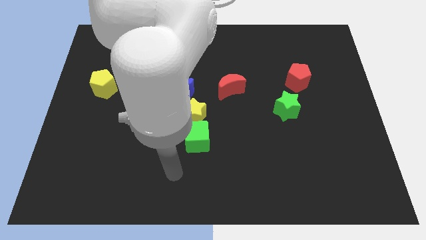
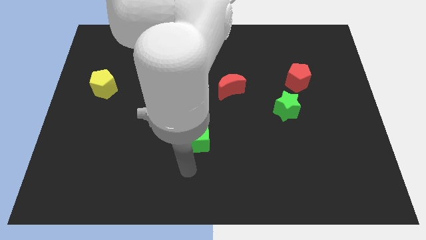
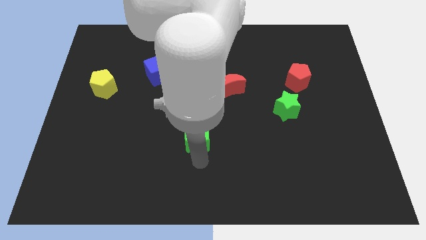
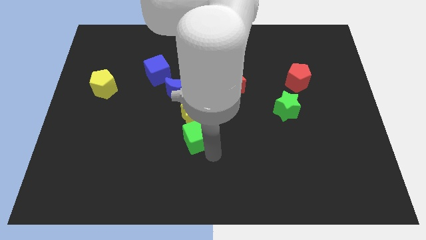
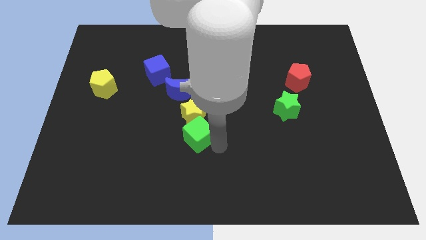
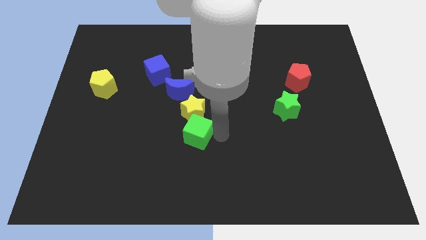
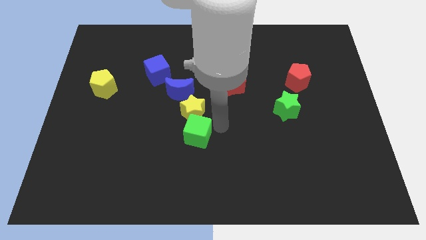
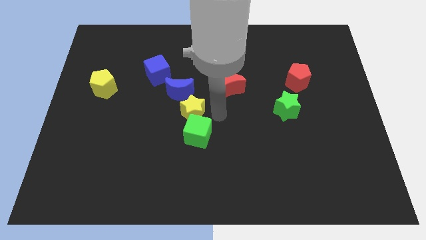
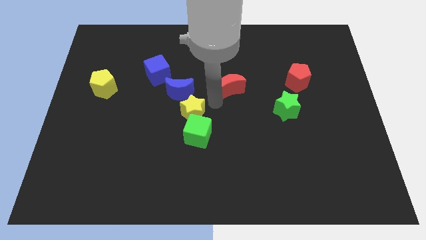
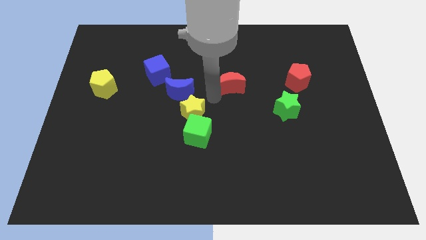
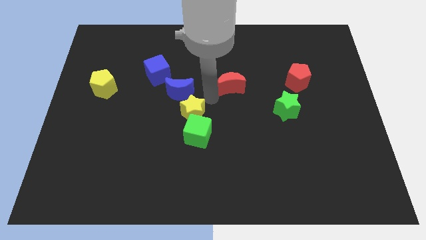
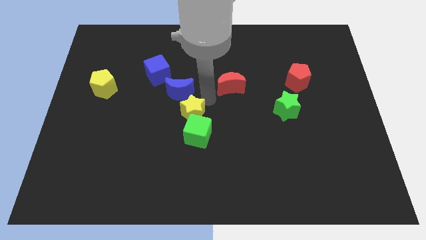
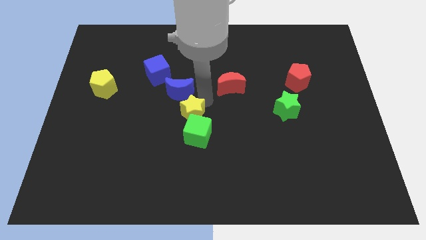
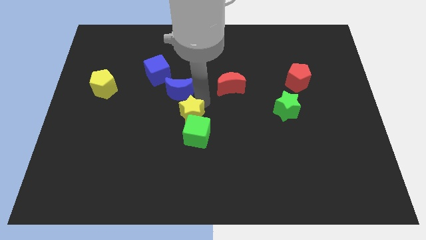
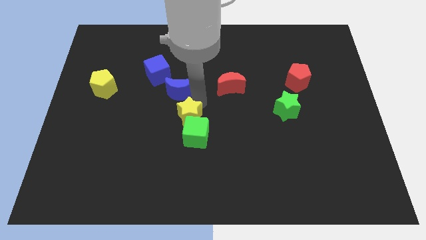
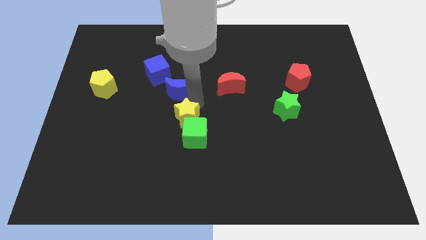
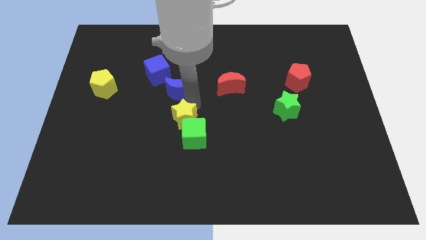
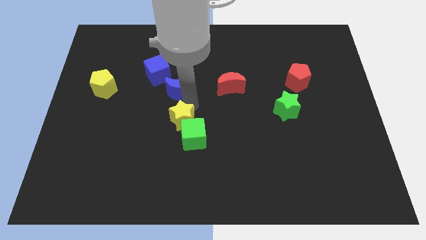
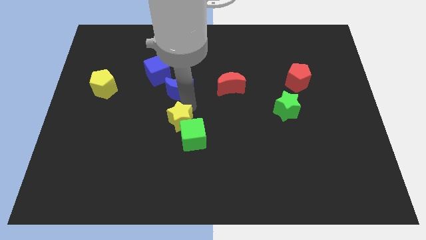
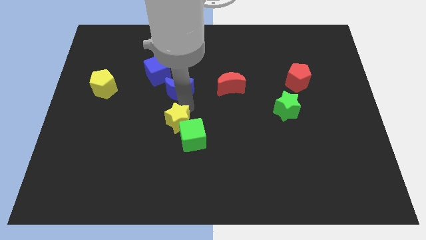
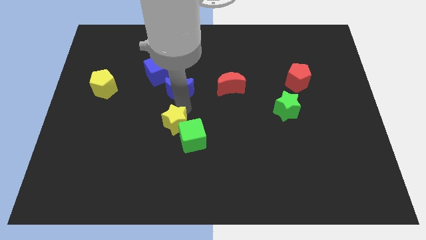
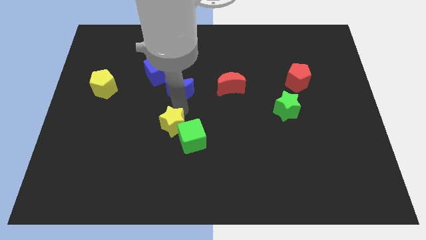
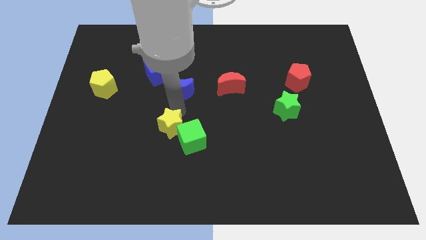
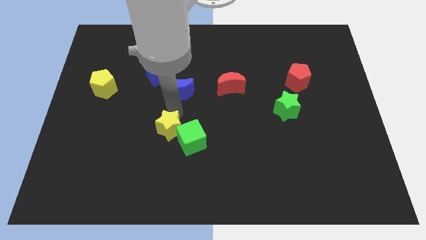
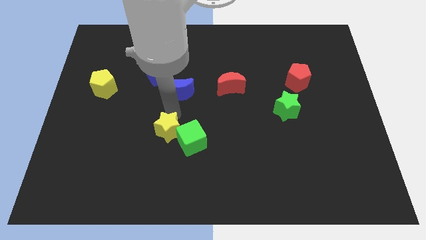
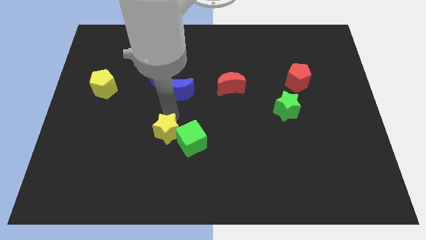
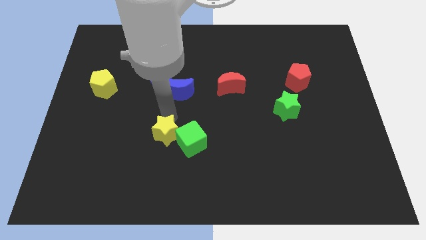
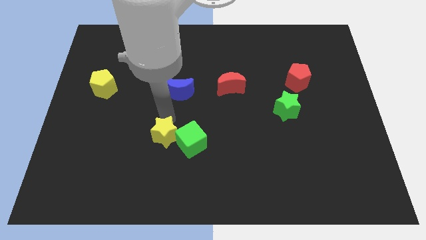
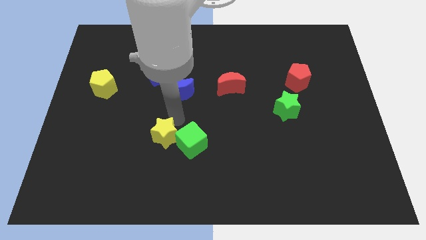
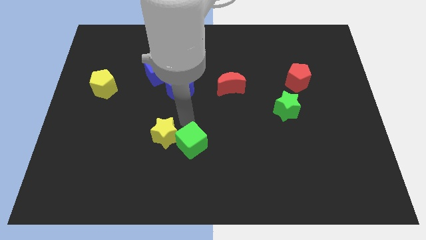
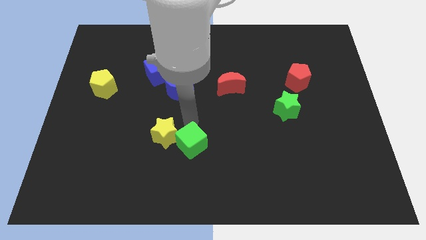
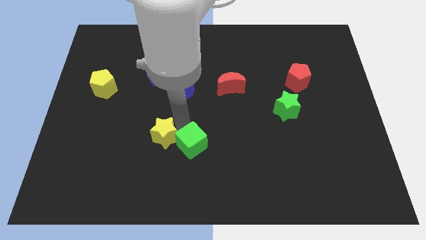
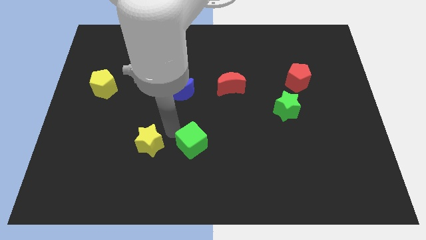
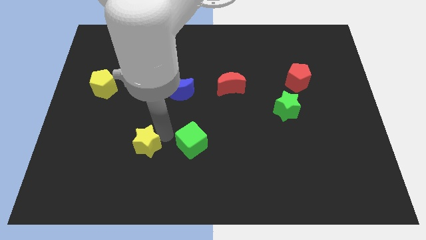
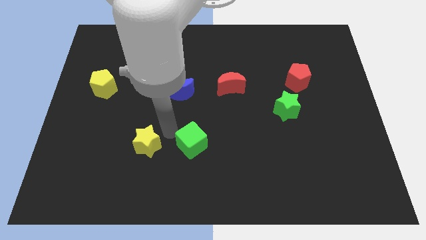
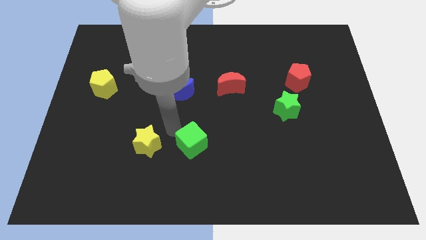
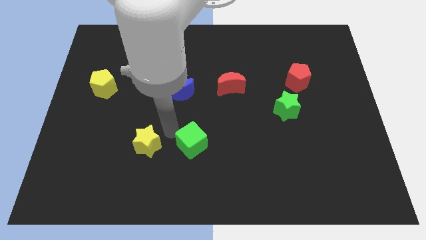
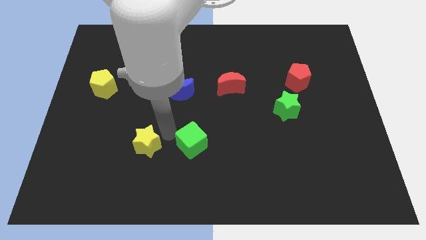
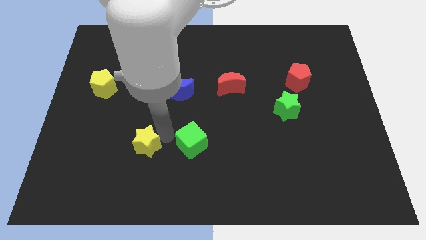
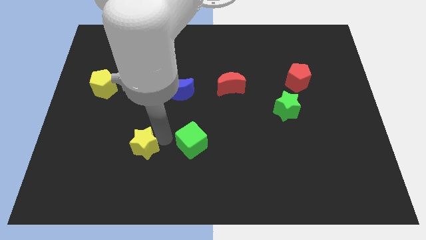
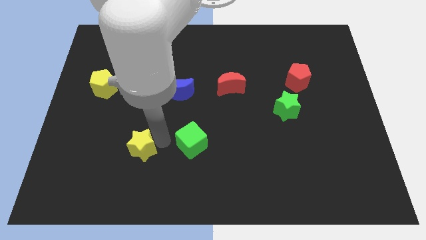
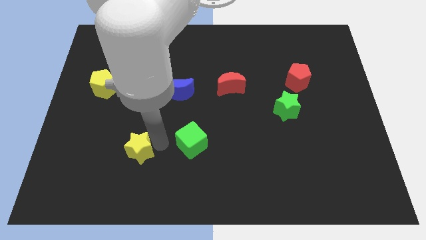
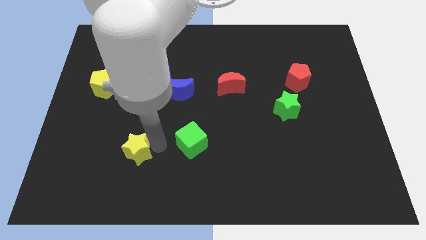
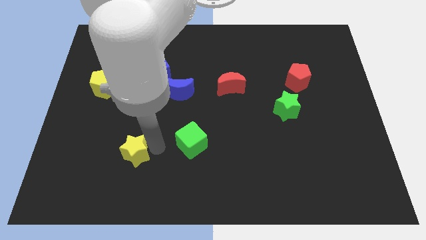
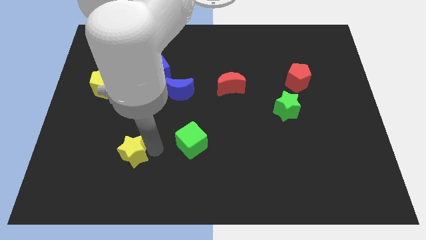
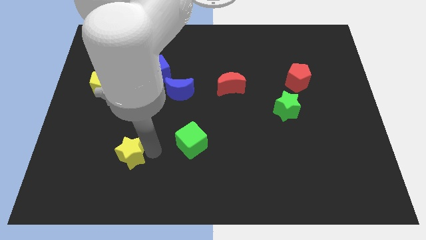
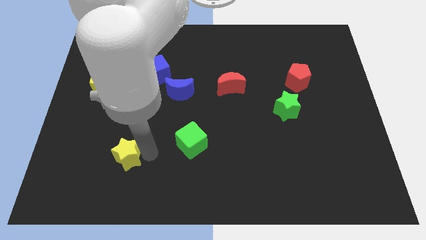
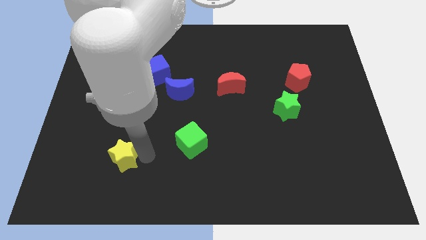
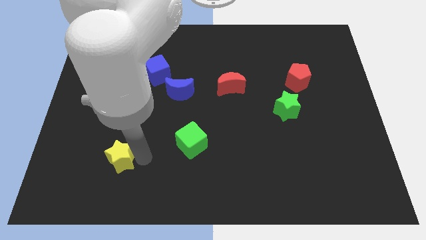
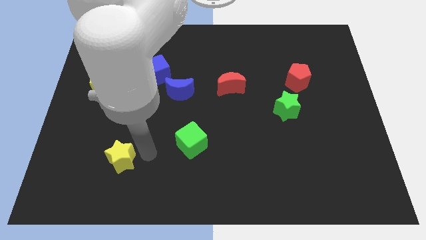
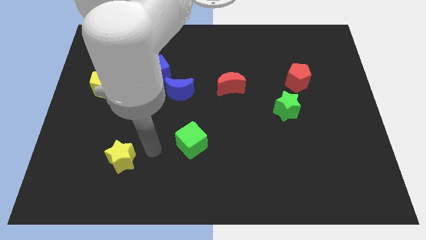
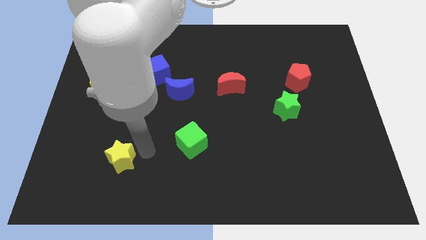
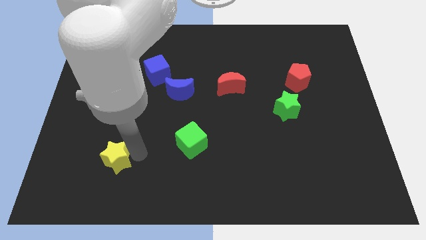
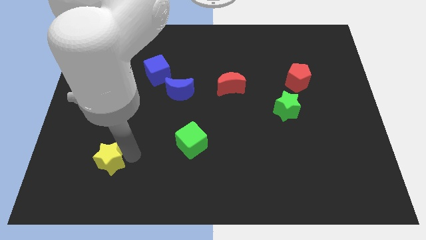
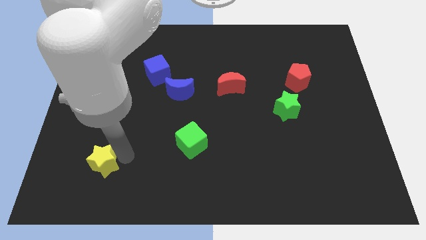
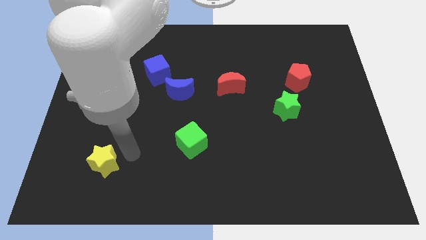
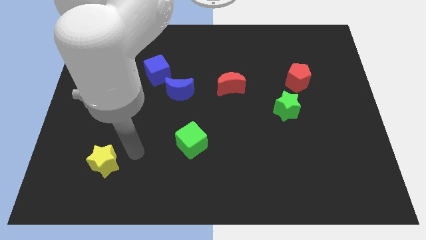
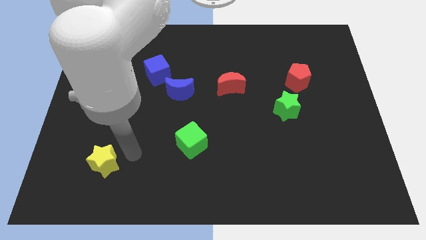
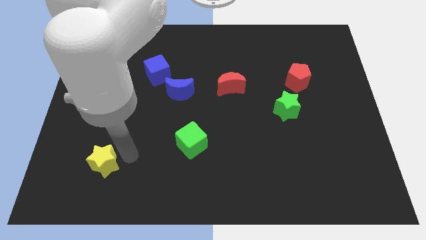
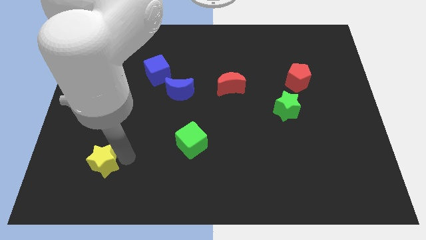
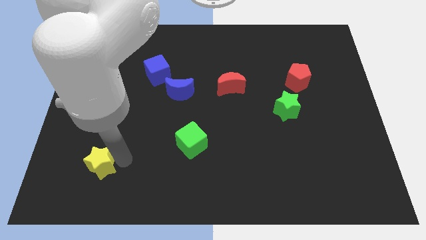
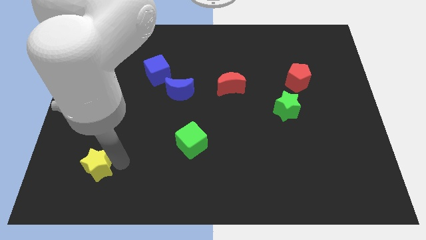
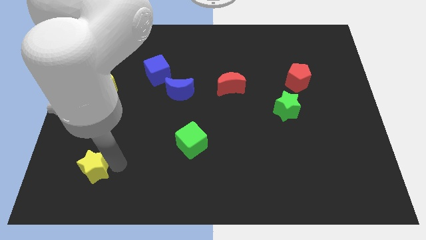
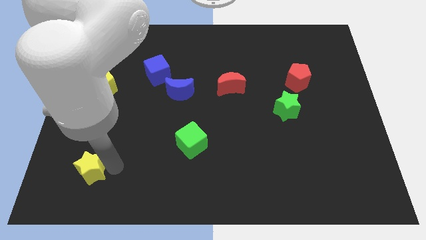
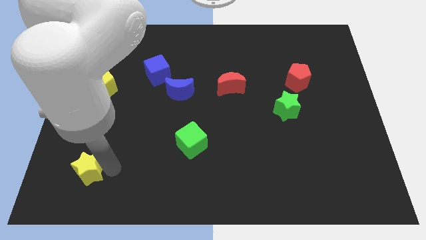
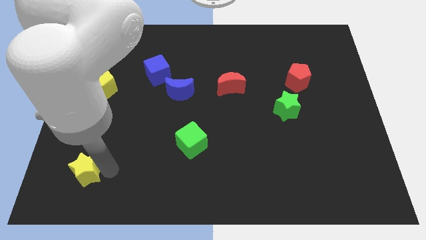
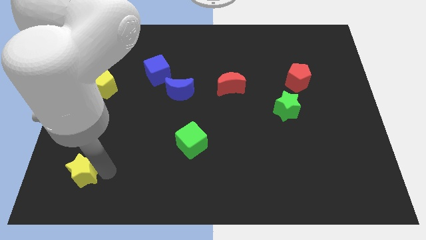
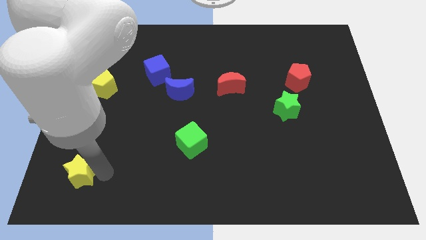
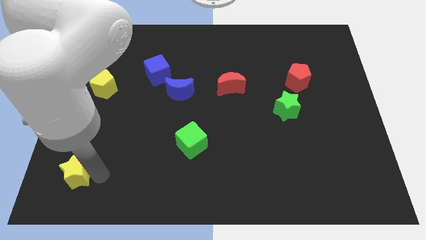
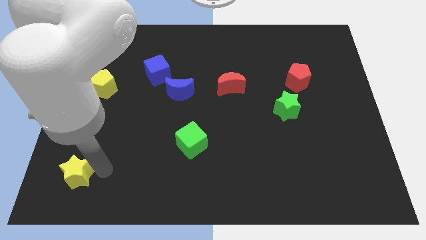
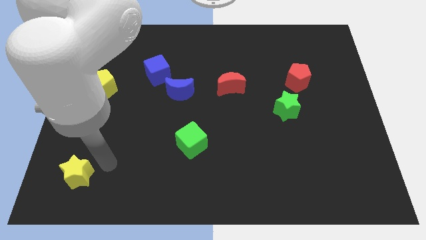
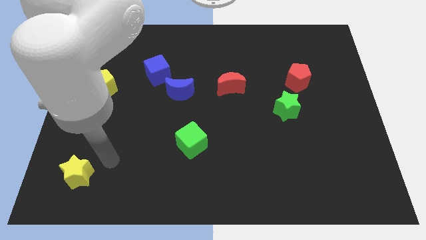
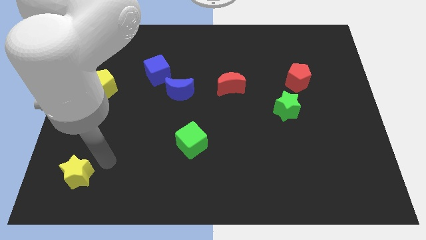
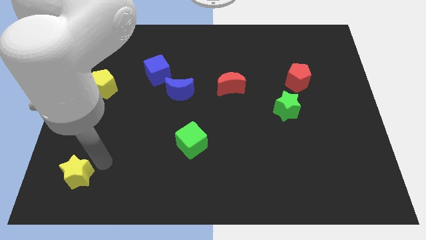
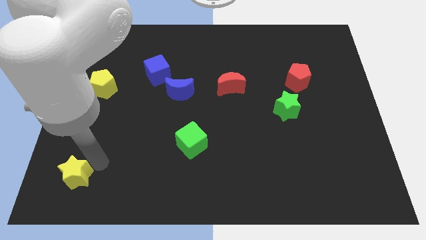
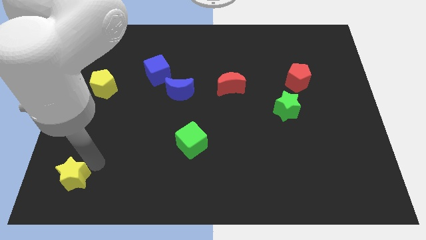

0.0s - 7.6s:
slide the yellow star to the bottom left
